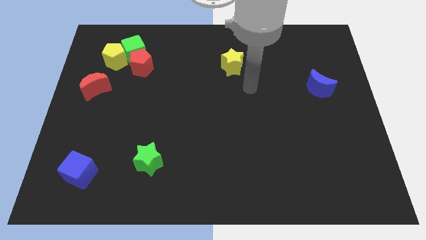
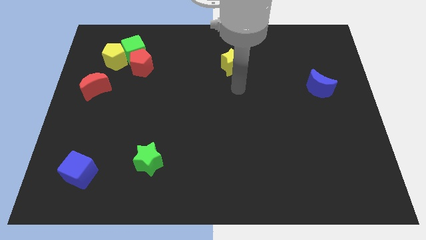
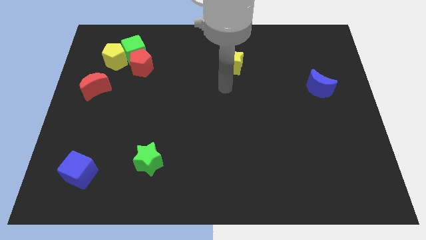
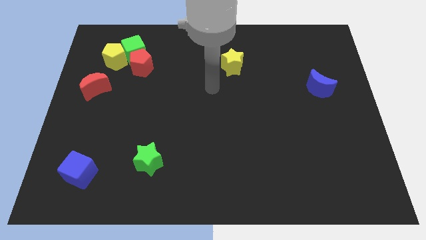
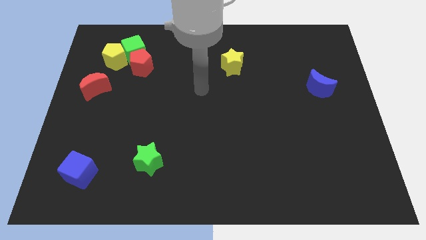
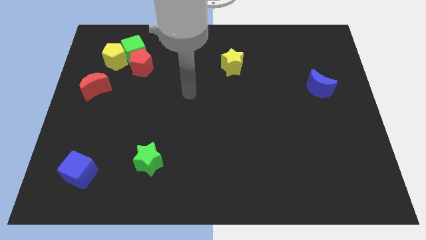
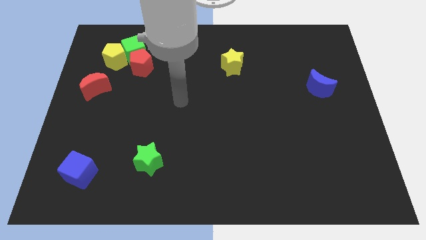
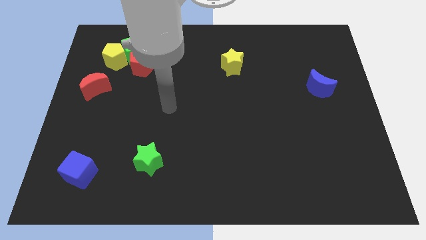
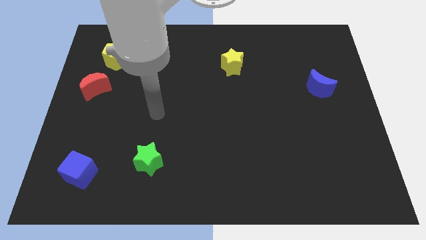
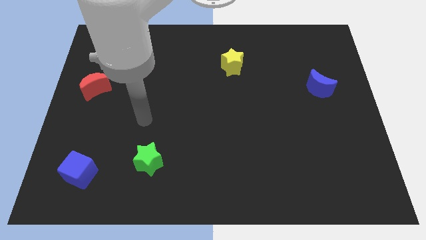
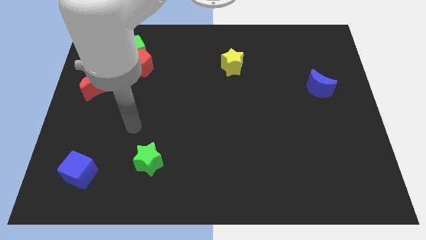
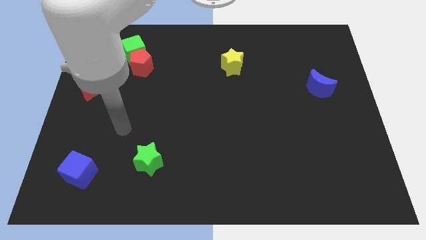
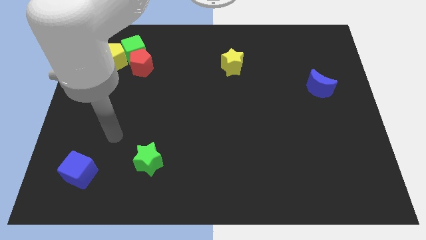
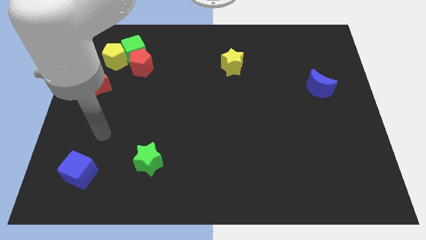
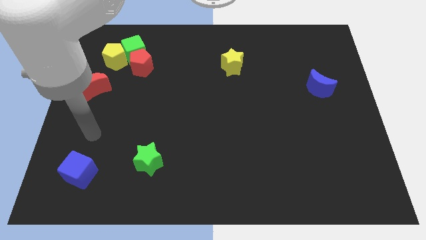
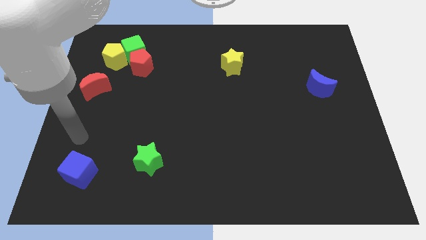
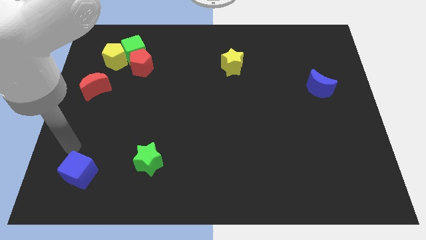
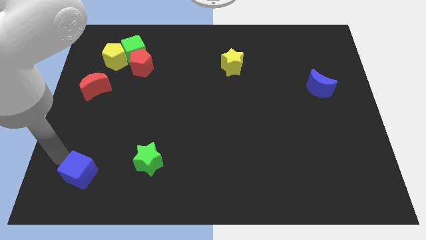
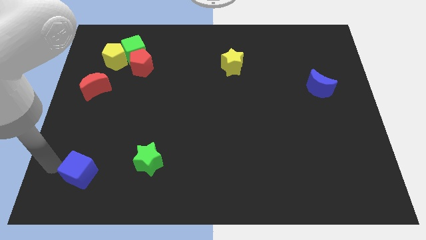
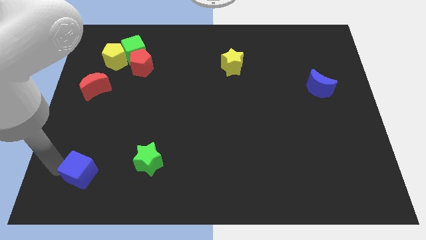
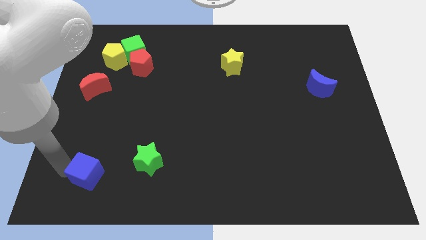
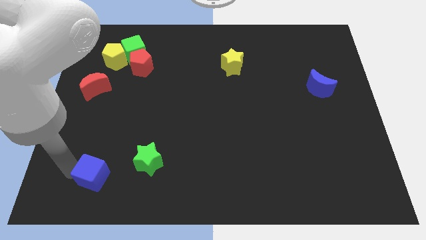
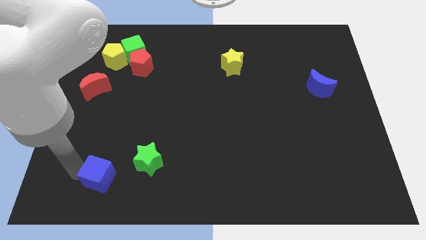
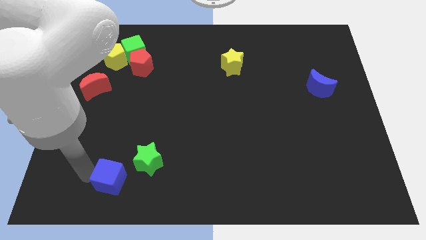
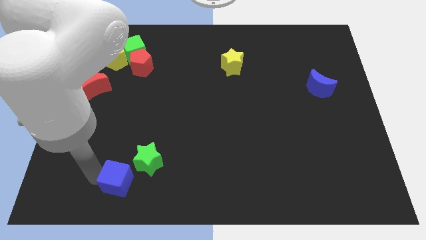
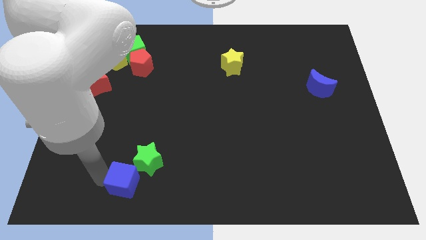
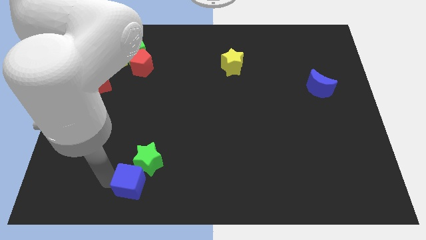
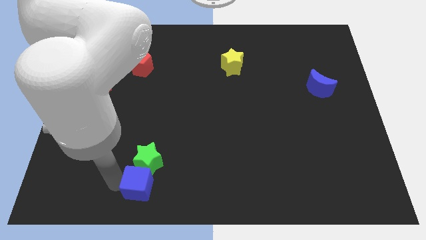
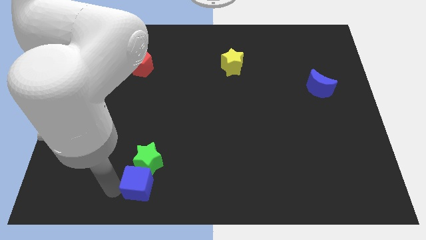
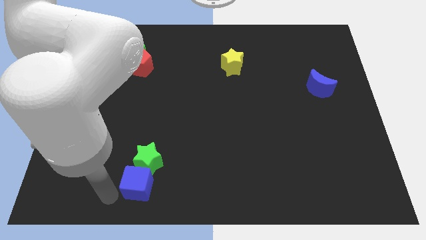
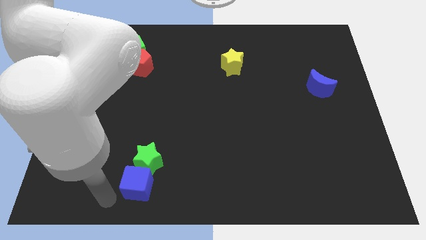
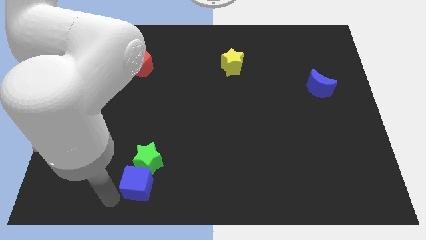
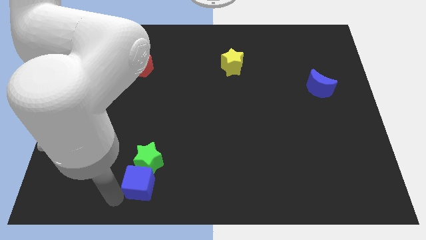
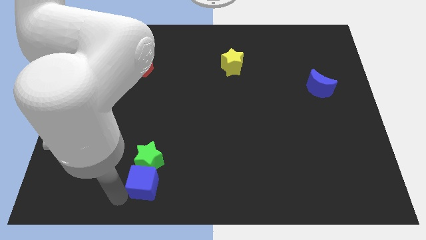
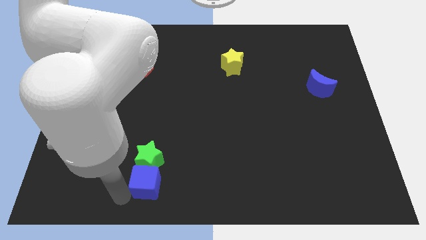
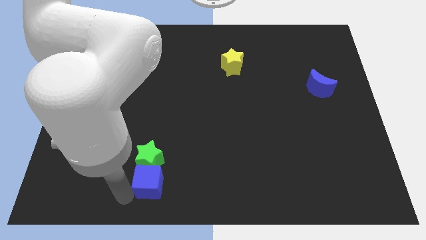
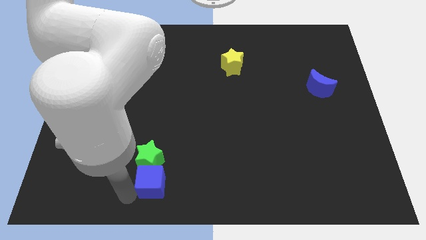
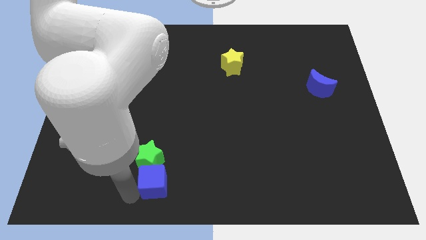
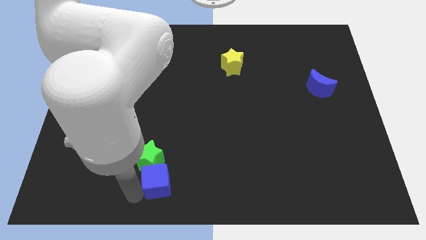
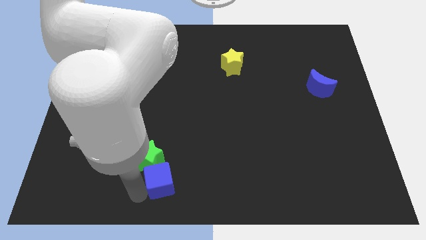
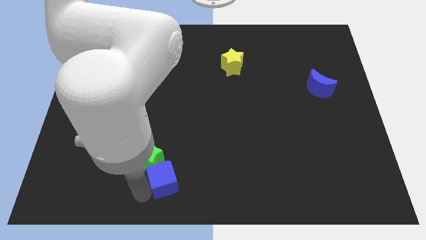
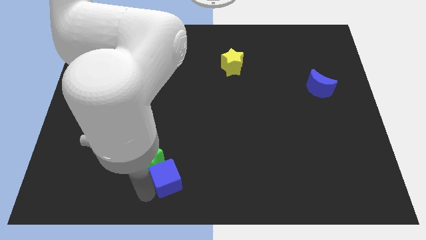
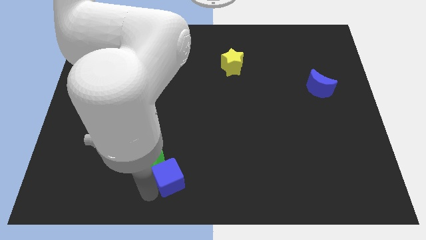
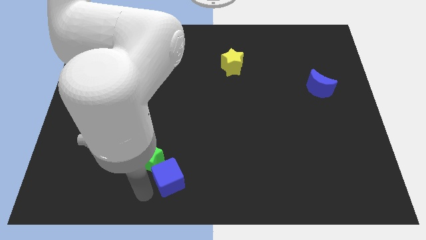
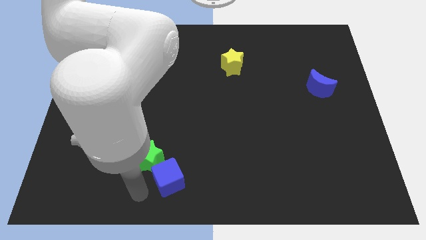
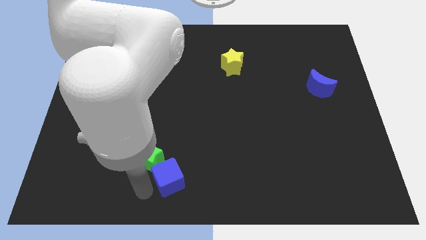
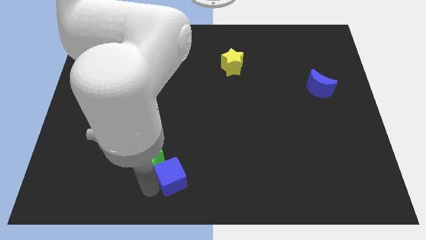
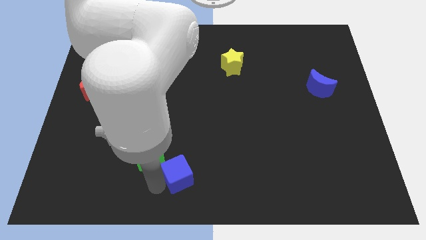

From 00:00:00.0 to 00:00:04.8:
slide the blue cube right

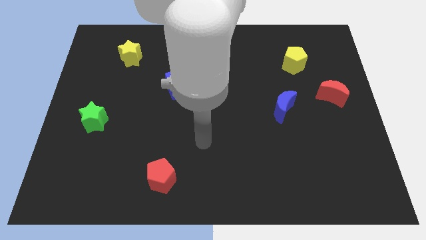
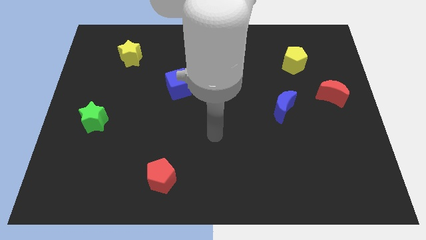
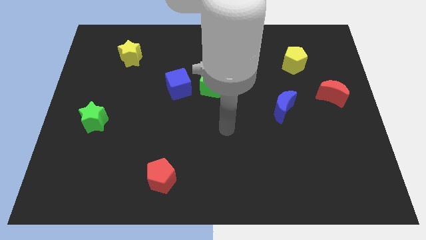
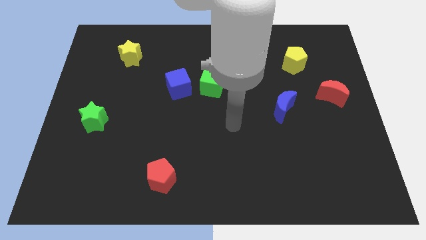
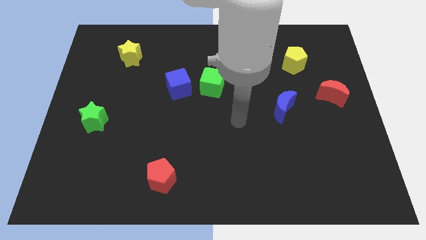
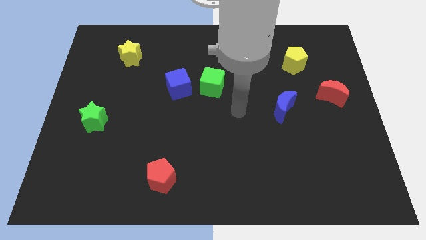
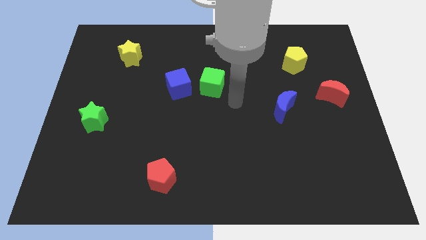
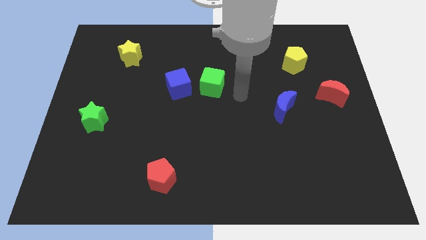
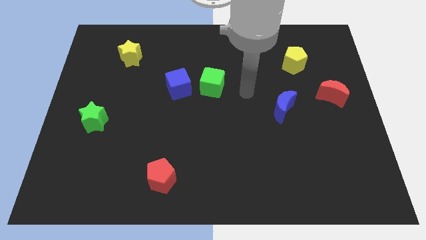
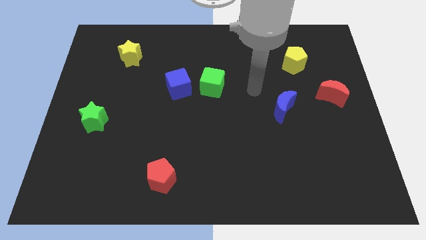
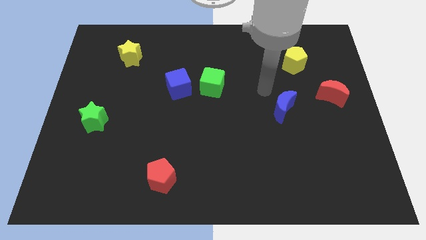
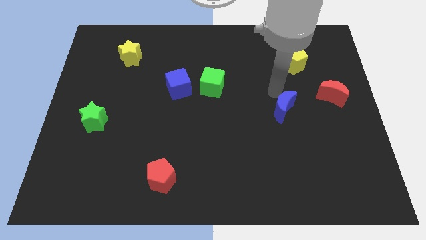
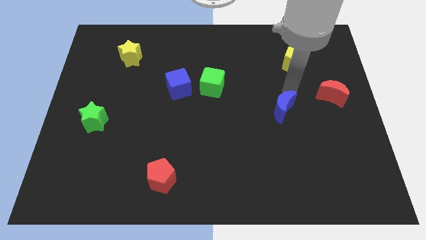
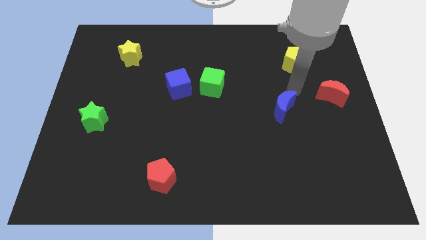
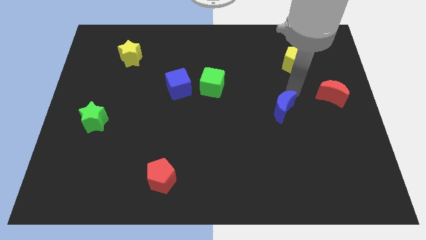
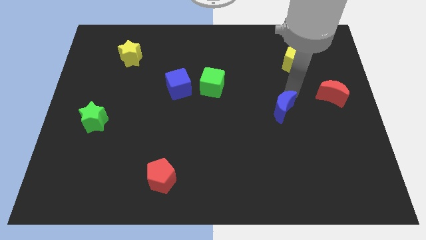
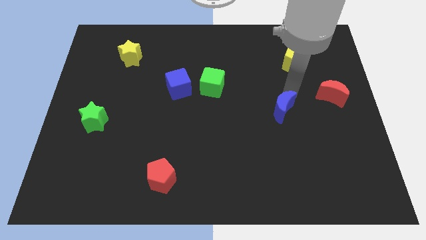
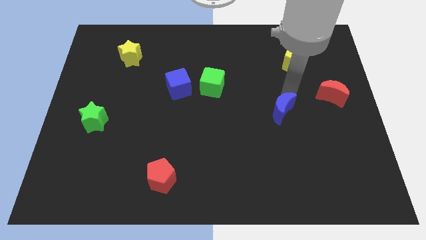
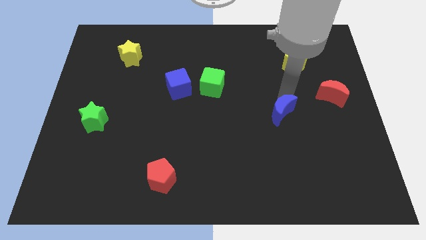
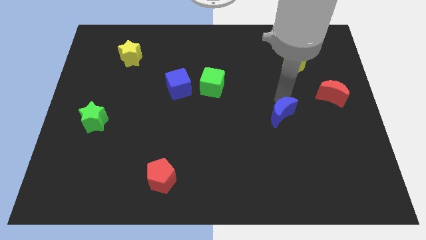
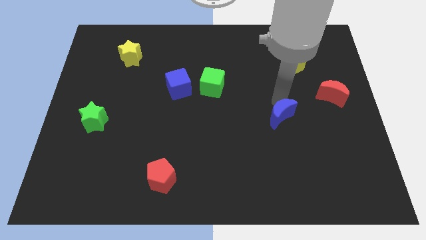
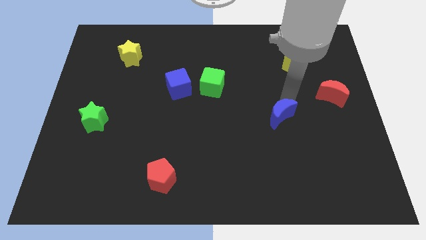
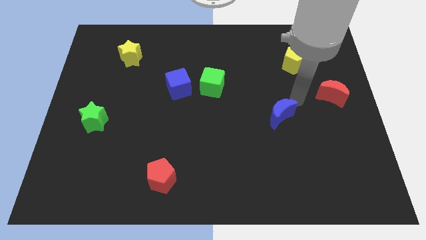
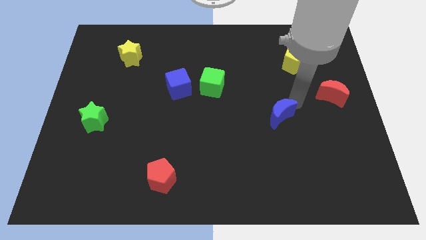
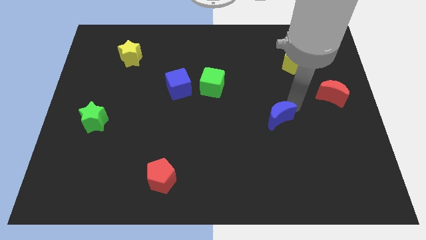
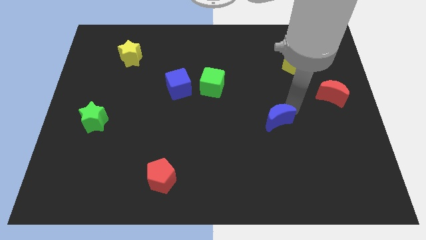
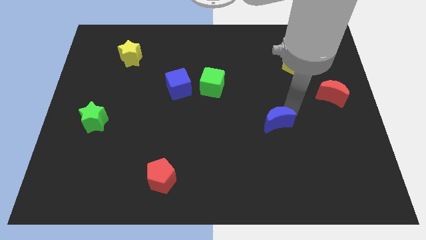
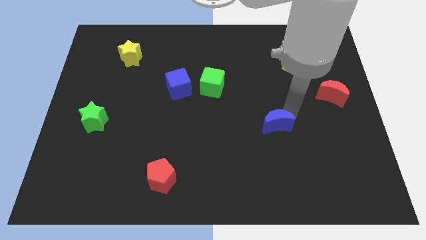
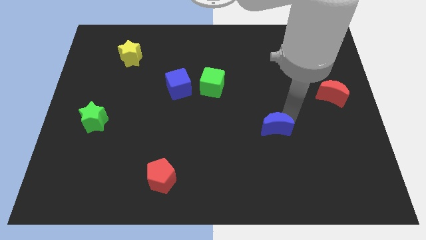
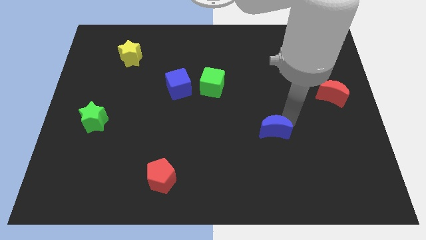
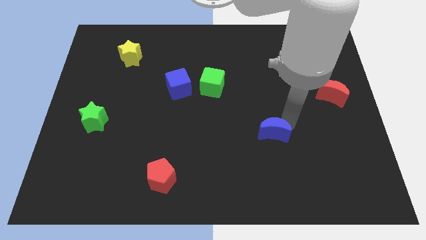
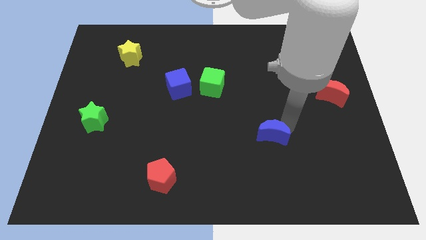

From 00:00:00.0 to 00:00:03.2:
slide the blue moon slightly downwards and to the left
